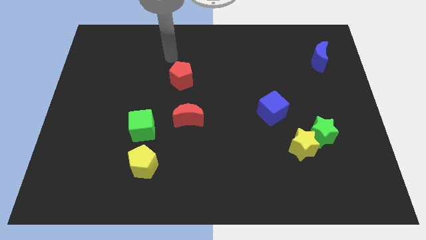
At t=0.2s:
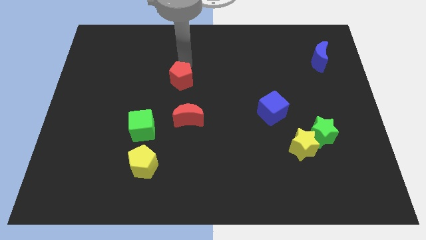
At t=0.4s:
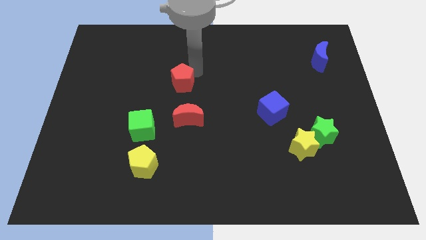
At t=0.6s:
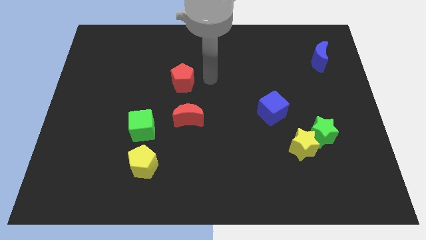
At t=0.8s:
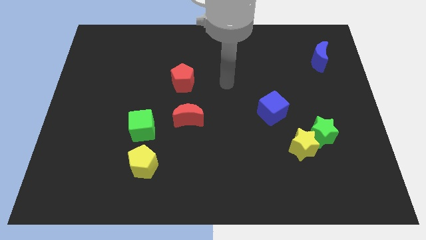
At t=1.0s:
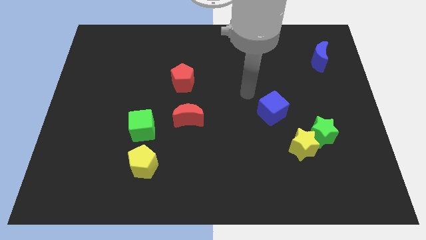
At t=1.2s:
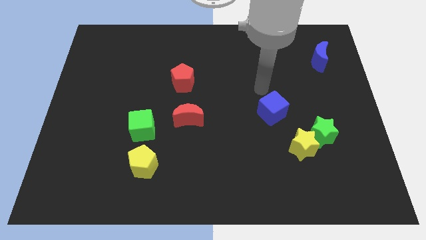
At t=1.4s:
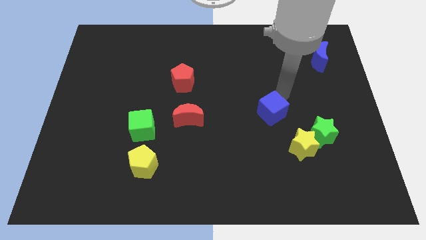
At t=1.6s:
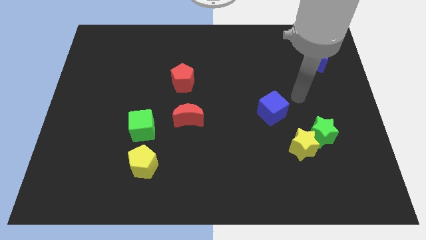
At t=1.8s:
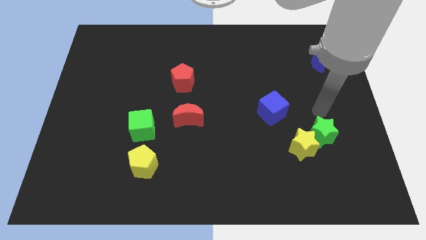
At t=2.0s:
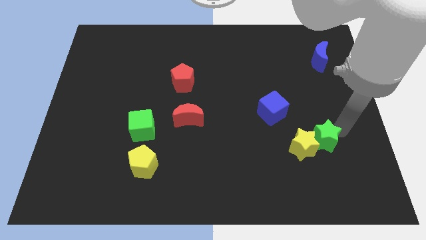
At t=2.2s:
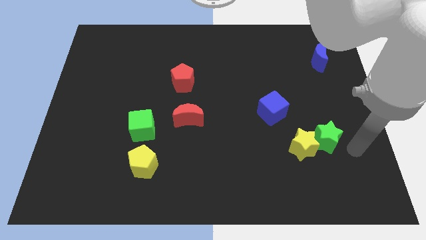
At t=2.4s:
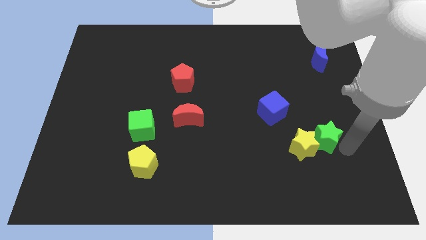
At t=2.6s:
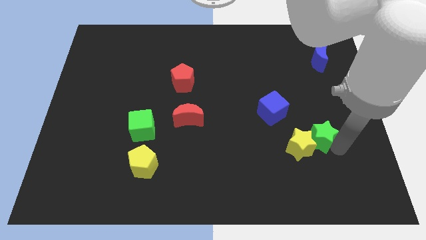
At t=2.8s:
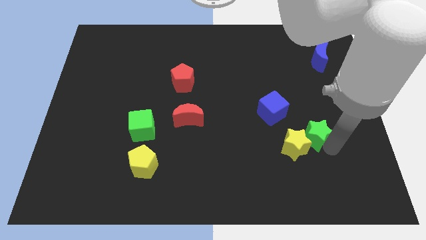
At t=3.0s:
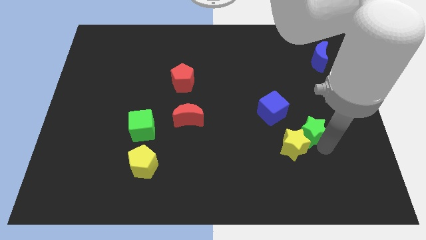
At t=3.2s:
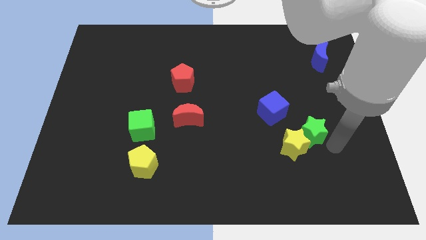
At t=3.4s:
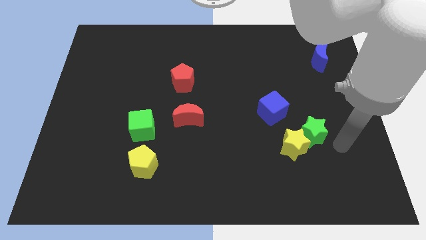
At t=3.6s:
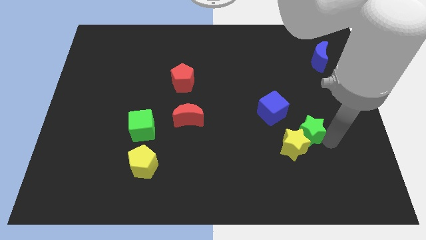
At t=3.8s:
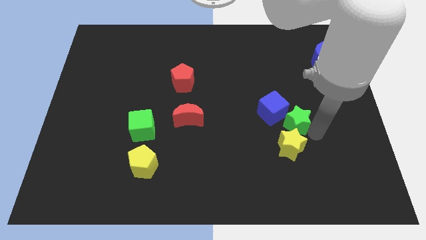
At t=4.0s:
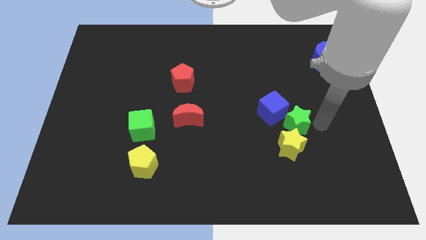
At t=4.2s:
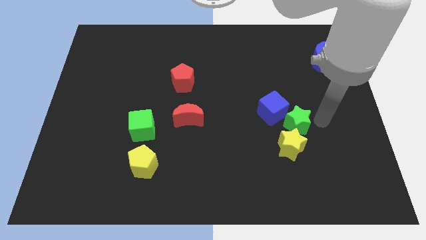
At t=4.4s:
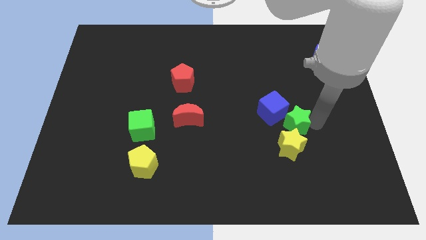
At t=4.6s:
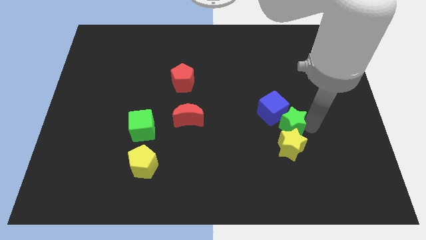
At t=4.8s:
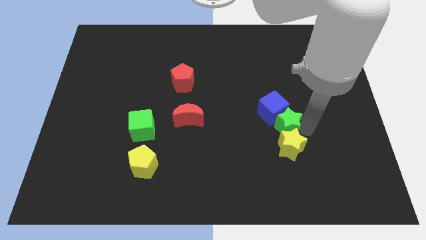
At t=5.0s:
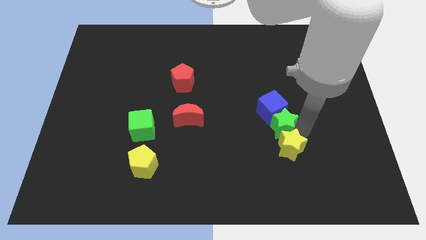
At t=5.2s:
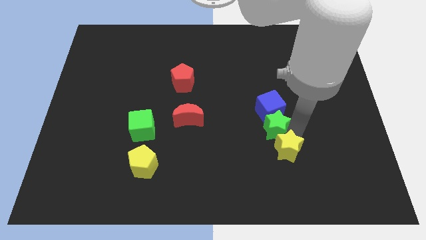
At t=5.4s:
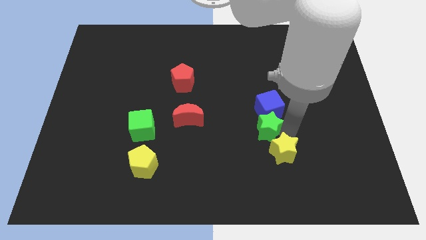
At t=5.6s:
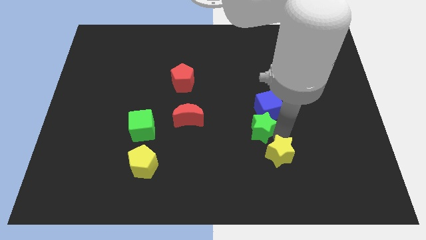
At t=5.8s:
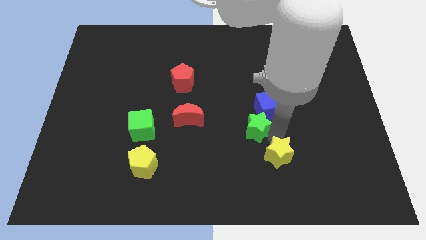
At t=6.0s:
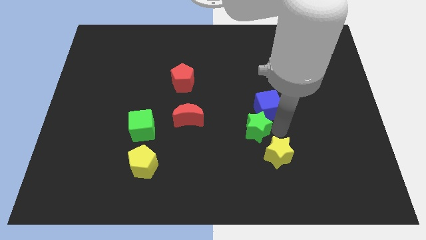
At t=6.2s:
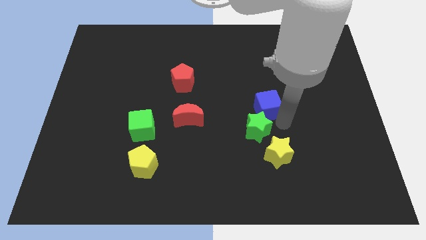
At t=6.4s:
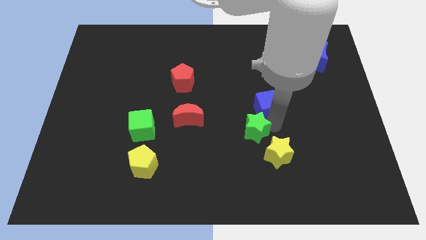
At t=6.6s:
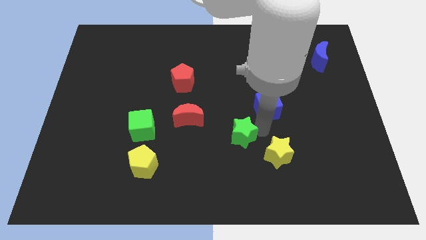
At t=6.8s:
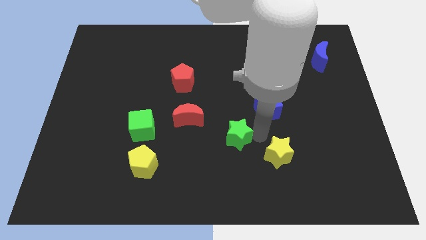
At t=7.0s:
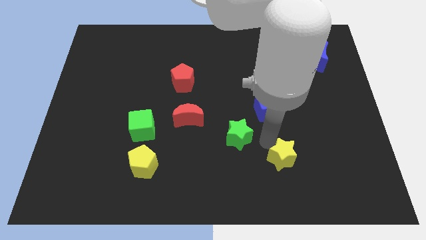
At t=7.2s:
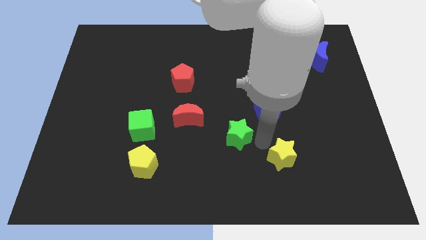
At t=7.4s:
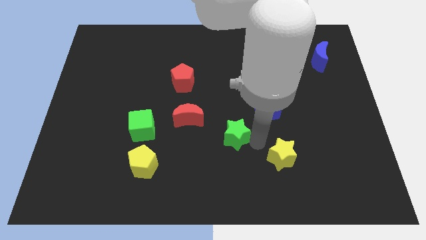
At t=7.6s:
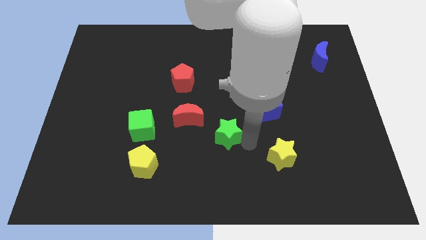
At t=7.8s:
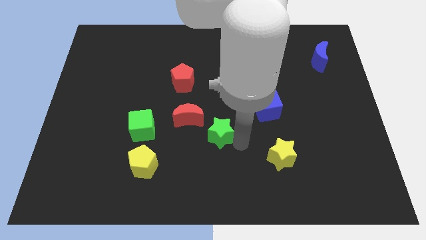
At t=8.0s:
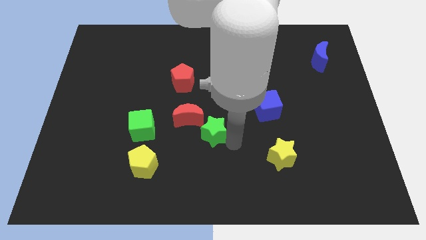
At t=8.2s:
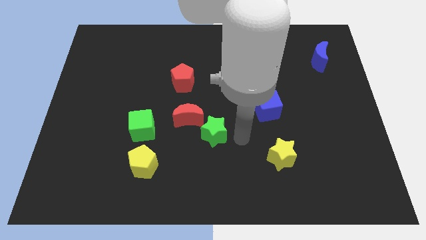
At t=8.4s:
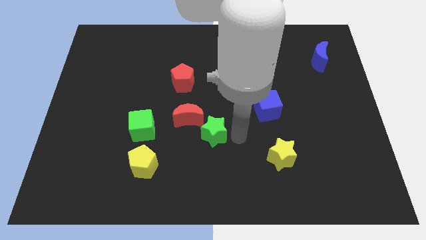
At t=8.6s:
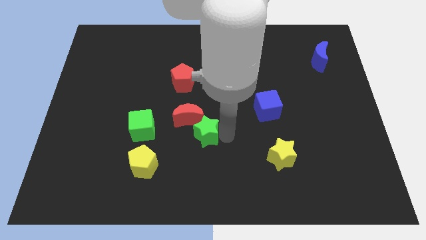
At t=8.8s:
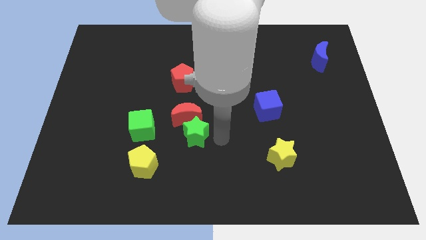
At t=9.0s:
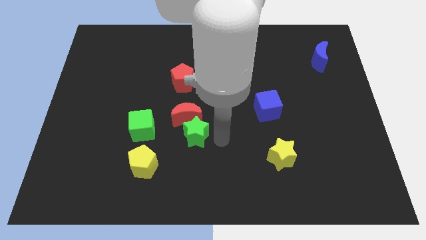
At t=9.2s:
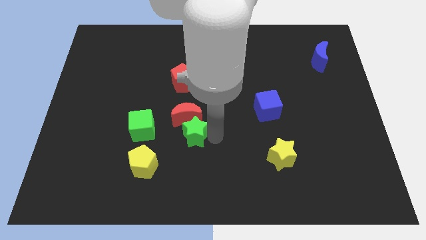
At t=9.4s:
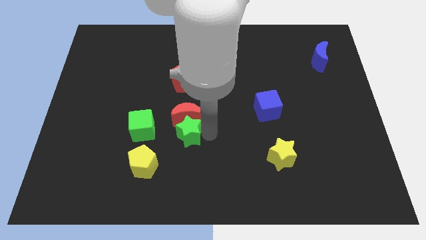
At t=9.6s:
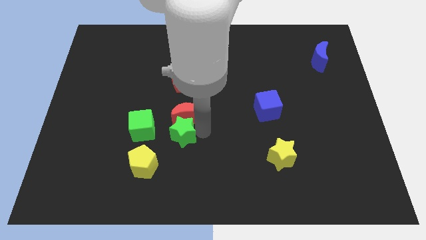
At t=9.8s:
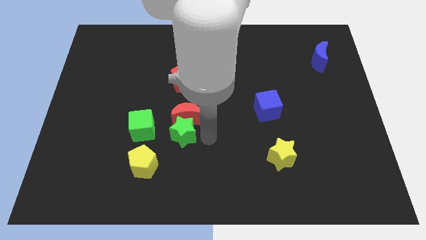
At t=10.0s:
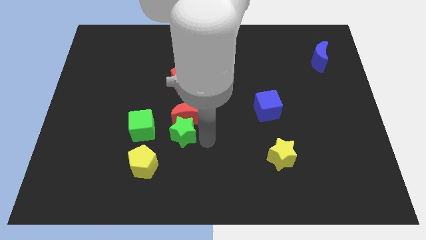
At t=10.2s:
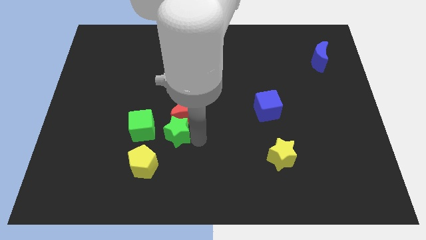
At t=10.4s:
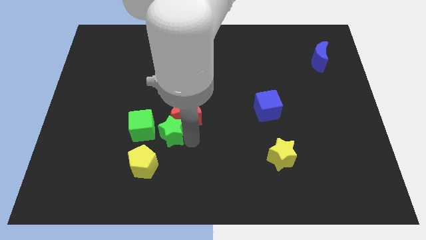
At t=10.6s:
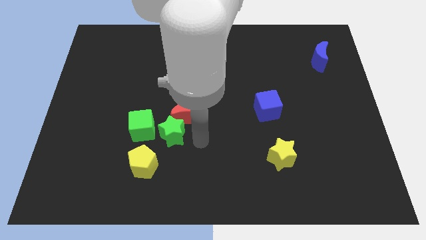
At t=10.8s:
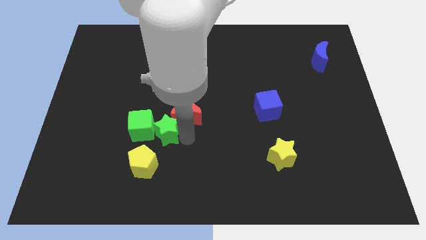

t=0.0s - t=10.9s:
slide the green star to the green cube

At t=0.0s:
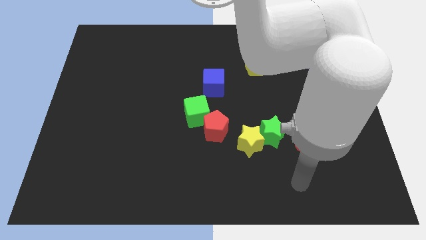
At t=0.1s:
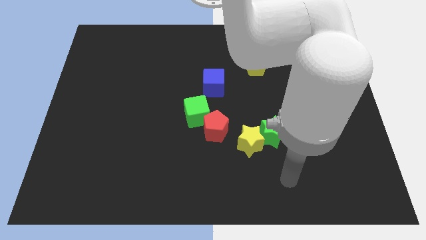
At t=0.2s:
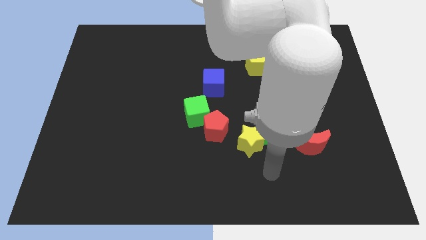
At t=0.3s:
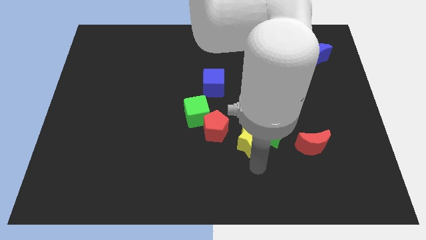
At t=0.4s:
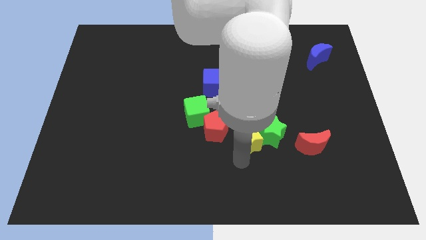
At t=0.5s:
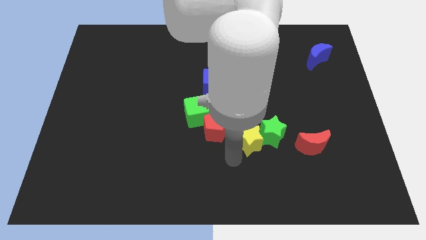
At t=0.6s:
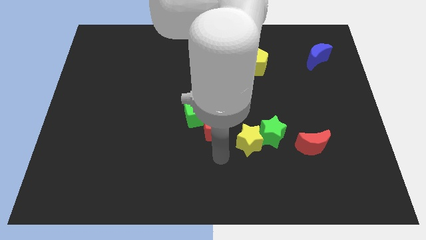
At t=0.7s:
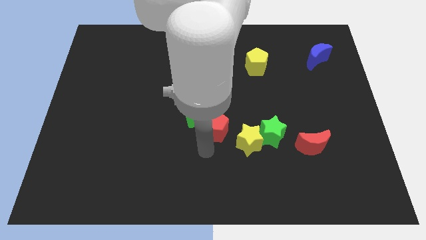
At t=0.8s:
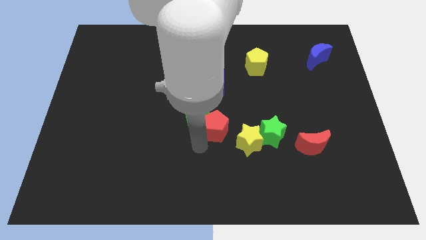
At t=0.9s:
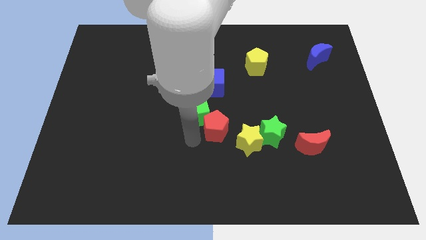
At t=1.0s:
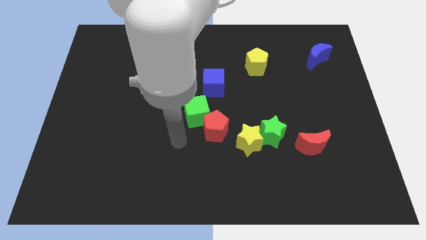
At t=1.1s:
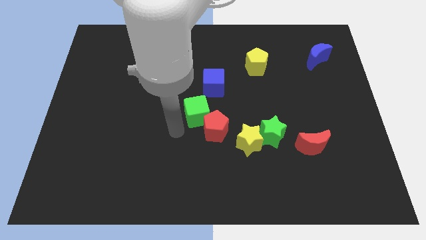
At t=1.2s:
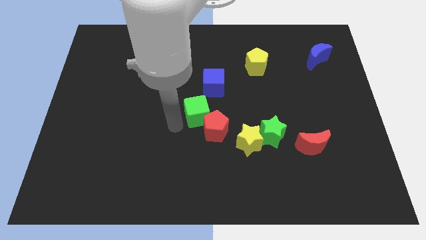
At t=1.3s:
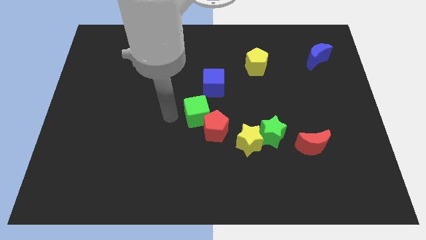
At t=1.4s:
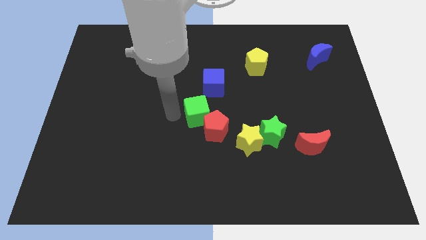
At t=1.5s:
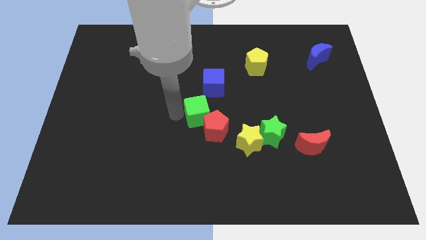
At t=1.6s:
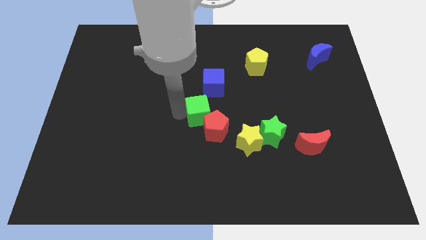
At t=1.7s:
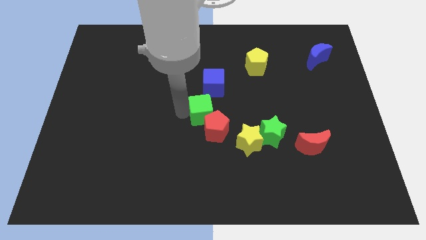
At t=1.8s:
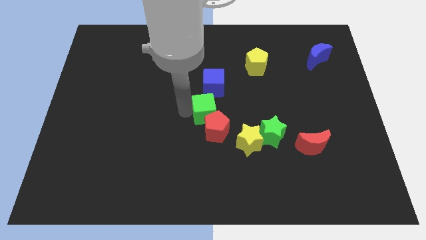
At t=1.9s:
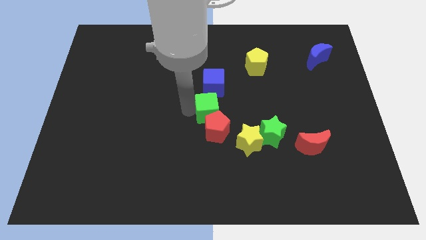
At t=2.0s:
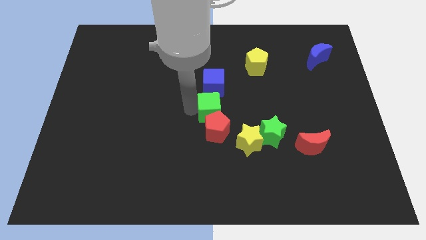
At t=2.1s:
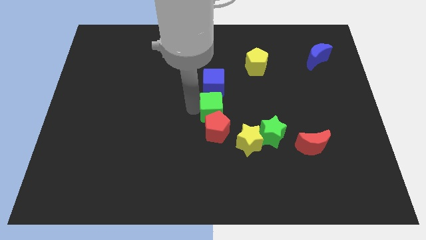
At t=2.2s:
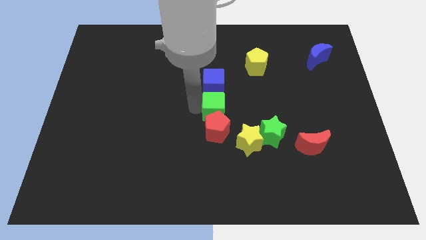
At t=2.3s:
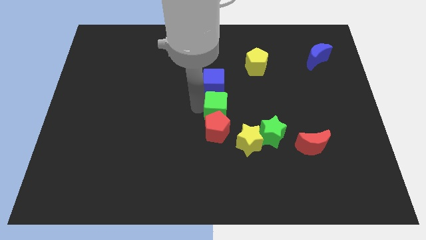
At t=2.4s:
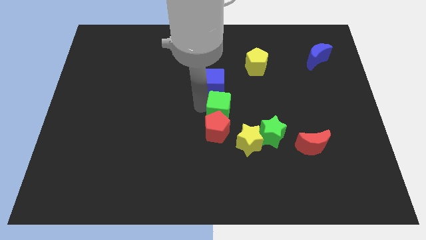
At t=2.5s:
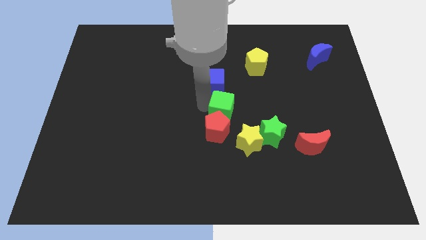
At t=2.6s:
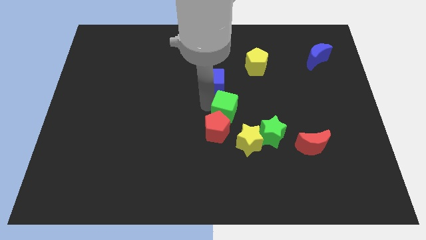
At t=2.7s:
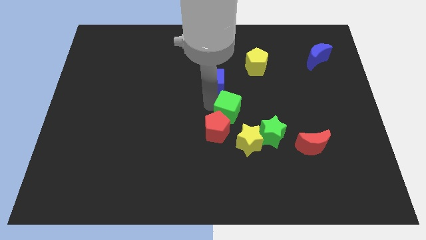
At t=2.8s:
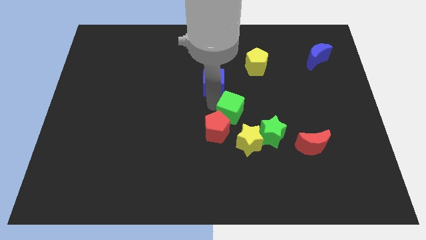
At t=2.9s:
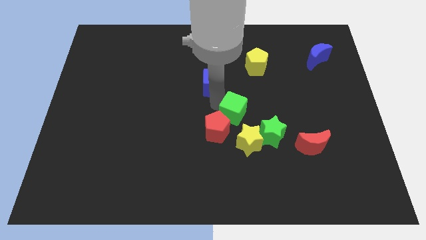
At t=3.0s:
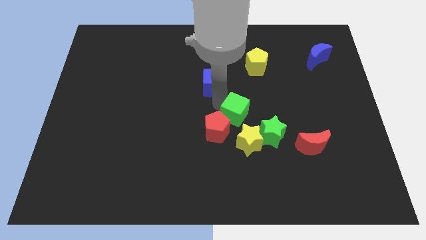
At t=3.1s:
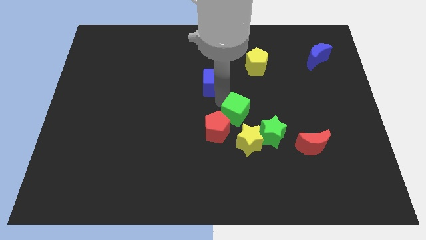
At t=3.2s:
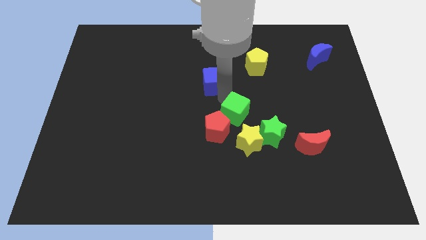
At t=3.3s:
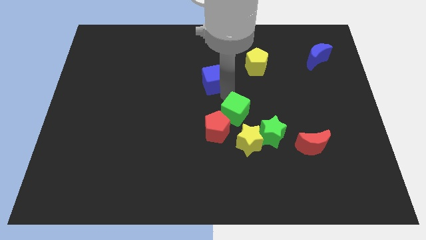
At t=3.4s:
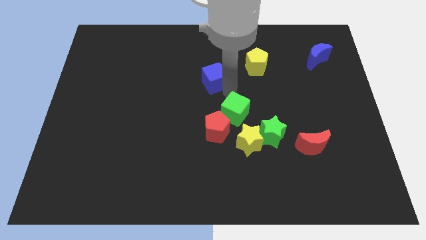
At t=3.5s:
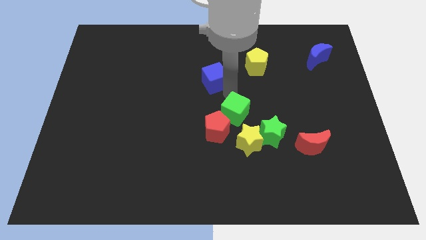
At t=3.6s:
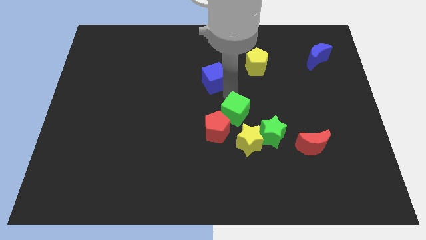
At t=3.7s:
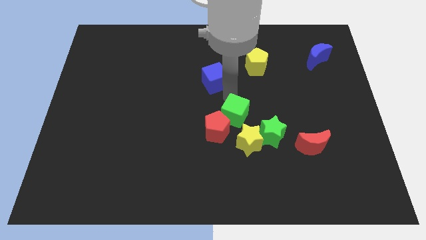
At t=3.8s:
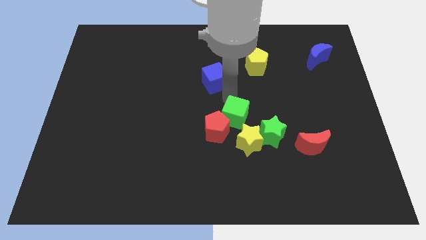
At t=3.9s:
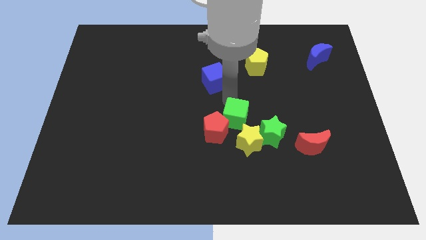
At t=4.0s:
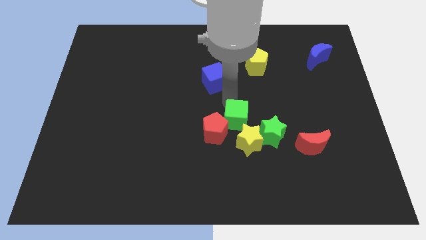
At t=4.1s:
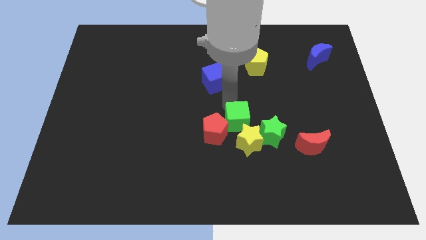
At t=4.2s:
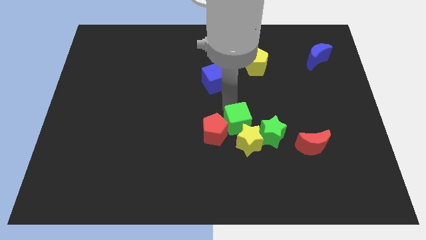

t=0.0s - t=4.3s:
slide the green cube towards the yellow star
